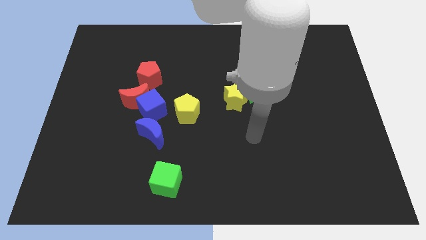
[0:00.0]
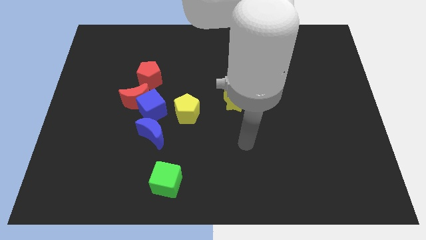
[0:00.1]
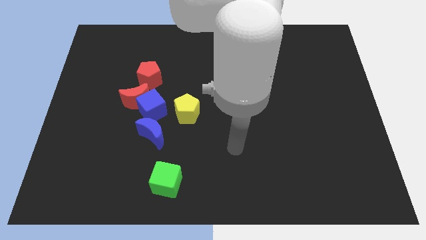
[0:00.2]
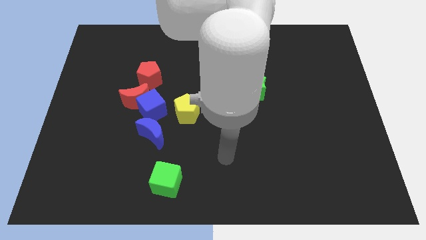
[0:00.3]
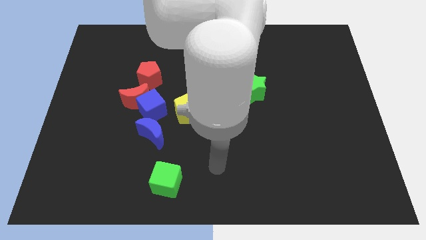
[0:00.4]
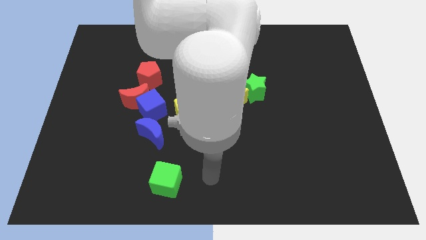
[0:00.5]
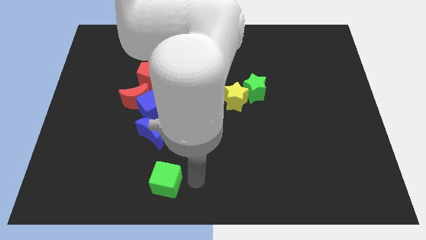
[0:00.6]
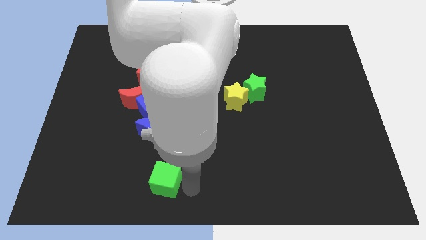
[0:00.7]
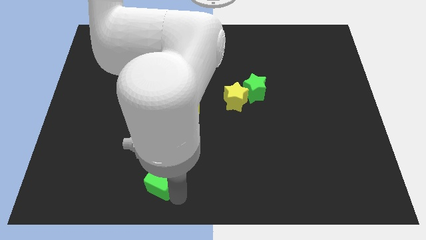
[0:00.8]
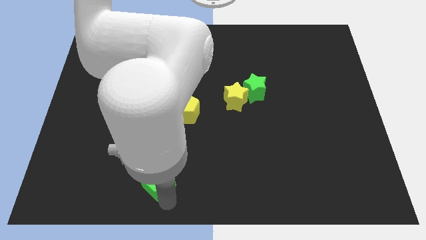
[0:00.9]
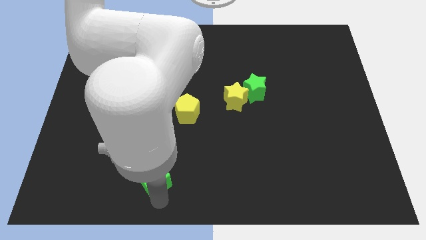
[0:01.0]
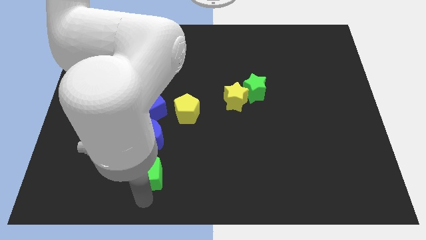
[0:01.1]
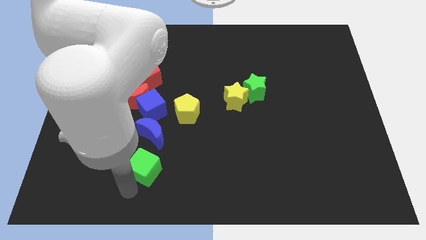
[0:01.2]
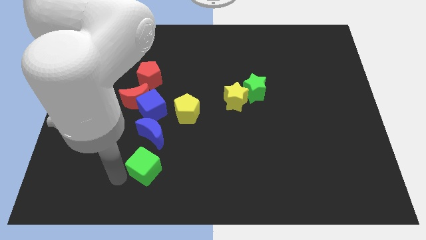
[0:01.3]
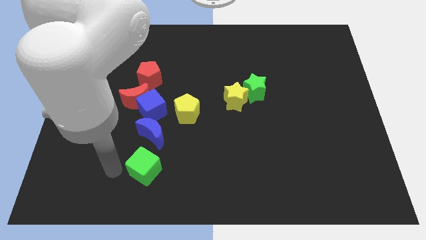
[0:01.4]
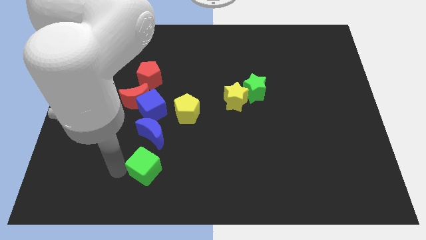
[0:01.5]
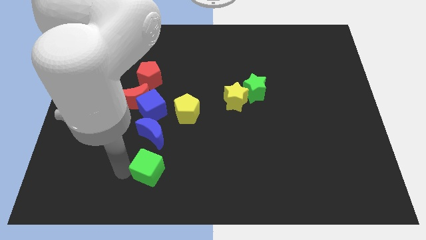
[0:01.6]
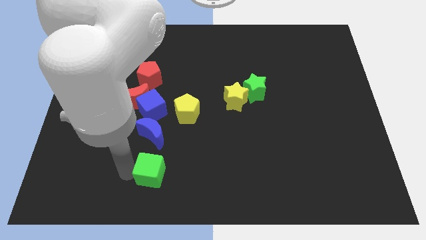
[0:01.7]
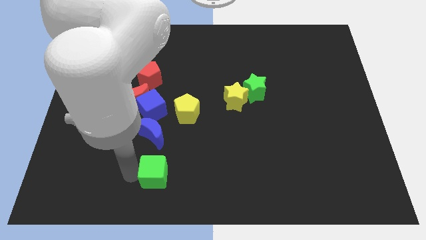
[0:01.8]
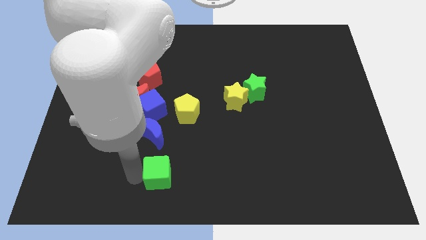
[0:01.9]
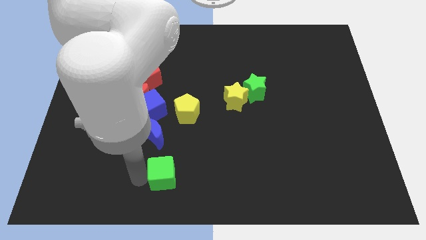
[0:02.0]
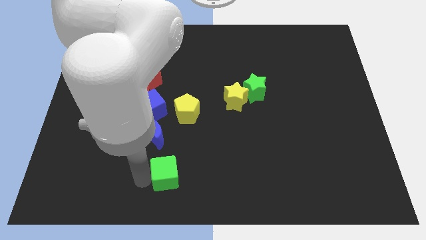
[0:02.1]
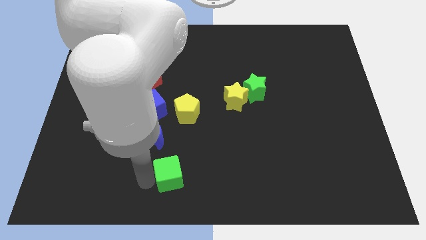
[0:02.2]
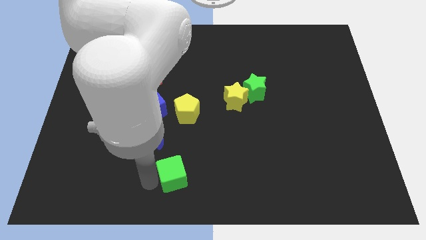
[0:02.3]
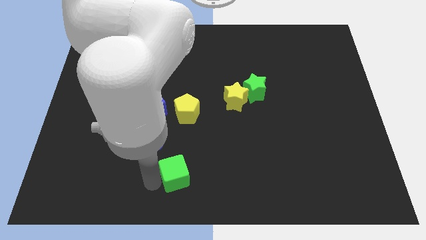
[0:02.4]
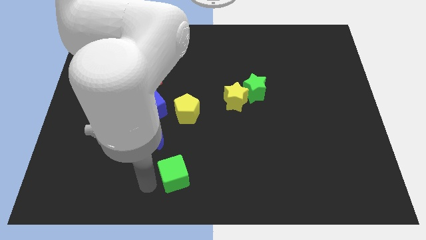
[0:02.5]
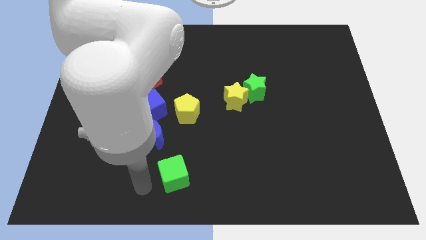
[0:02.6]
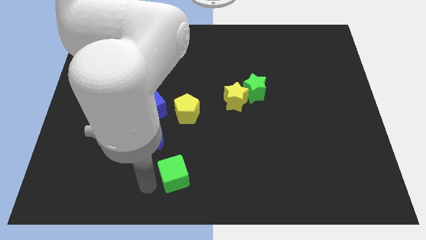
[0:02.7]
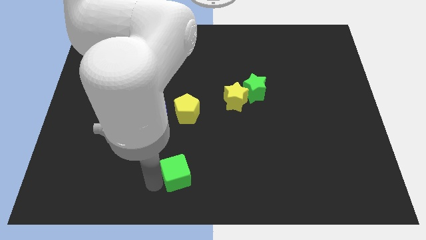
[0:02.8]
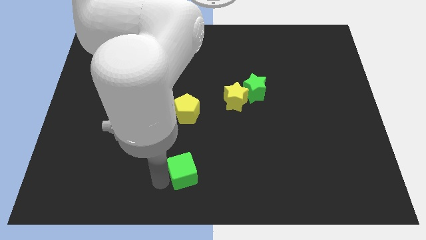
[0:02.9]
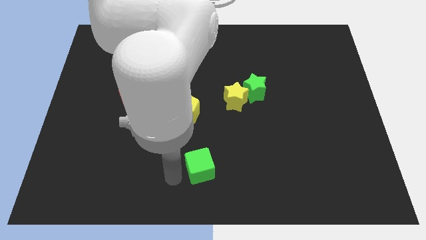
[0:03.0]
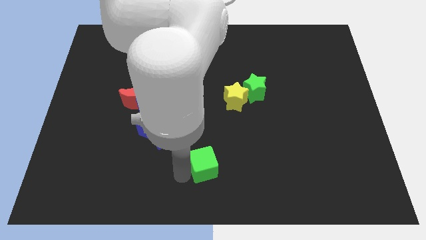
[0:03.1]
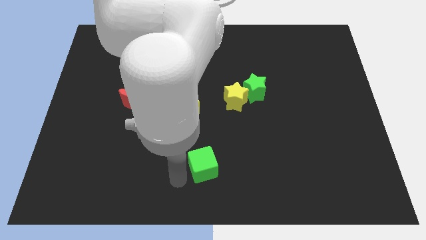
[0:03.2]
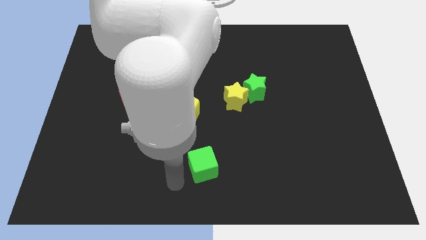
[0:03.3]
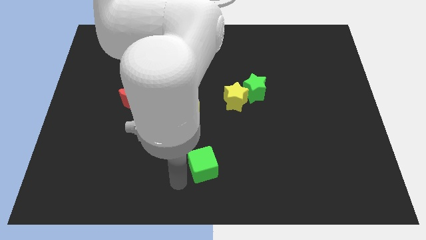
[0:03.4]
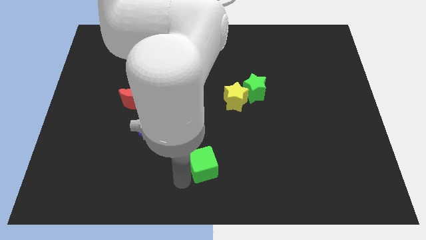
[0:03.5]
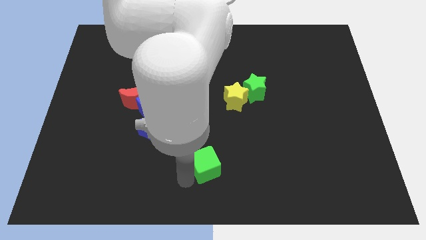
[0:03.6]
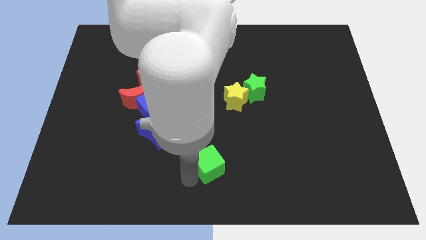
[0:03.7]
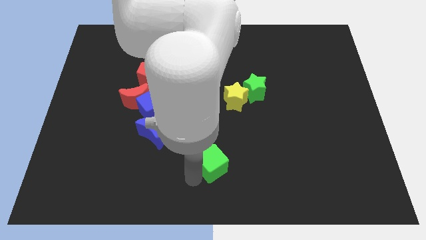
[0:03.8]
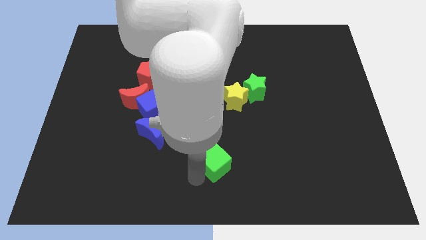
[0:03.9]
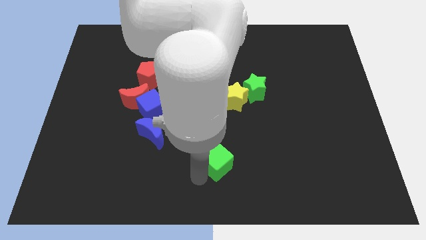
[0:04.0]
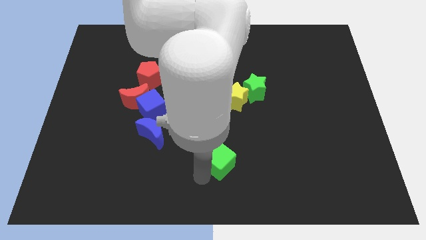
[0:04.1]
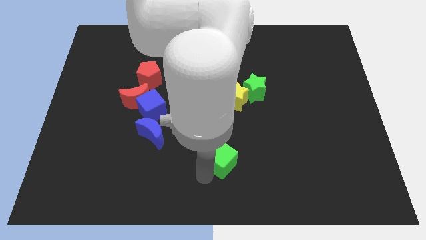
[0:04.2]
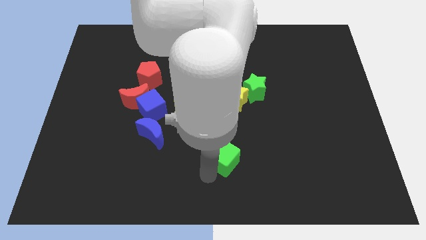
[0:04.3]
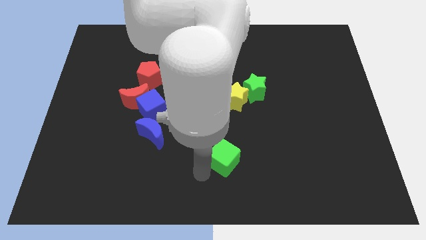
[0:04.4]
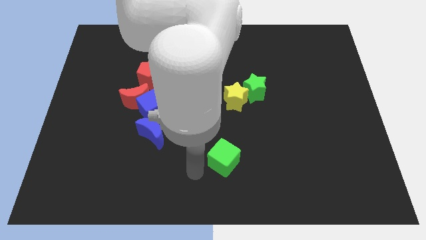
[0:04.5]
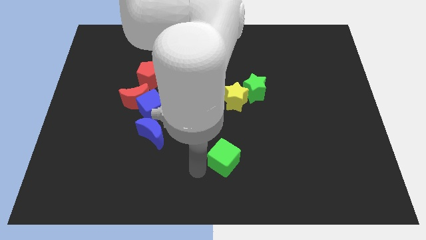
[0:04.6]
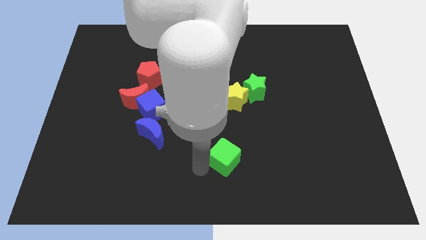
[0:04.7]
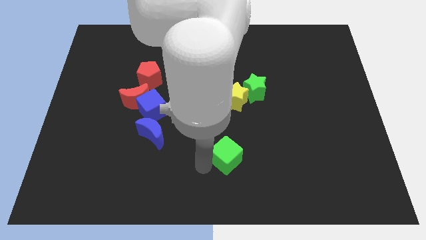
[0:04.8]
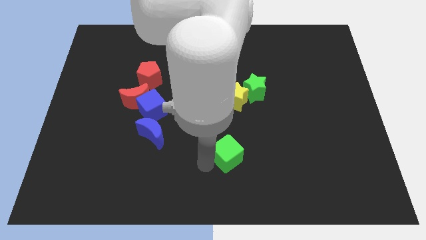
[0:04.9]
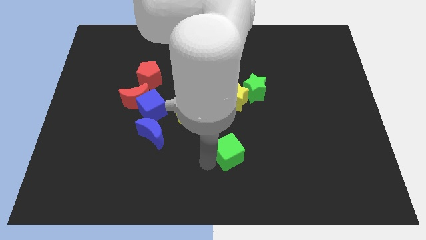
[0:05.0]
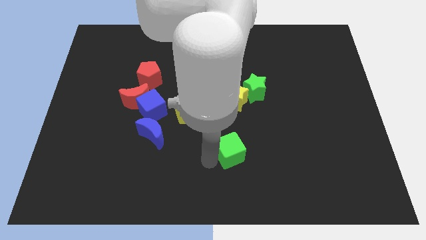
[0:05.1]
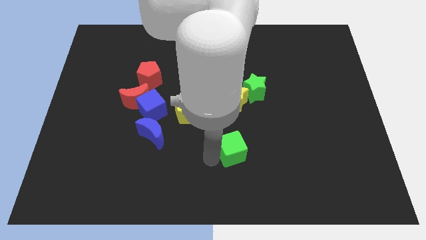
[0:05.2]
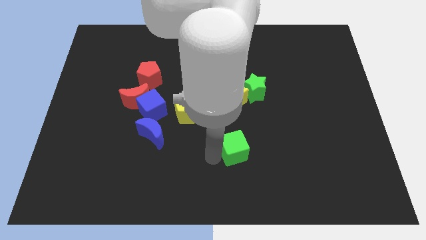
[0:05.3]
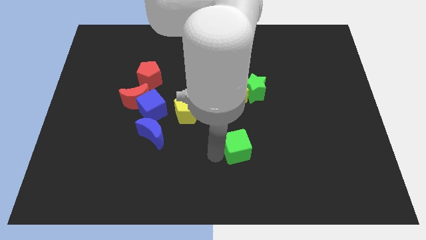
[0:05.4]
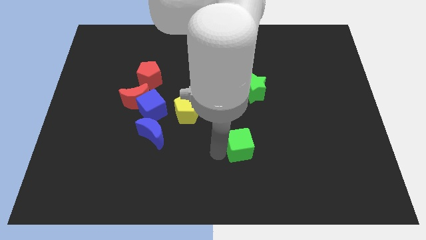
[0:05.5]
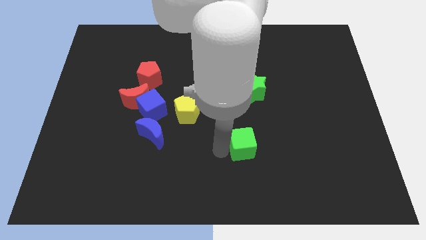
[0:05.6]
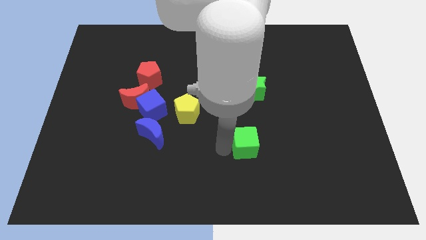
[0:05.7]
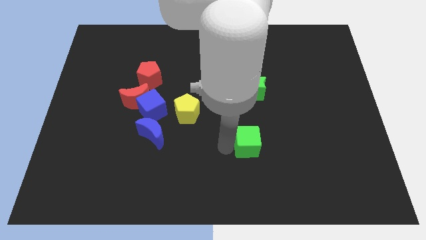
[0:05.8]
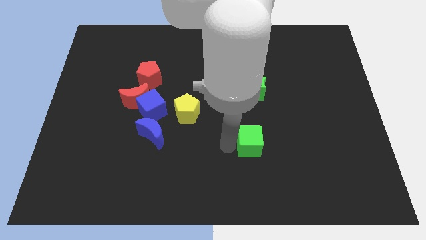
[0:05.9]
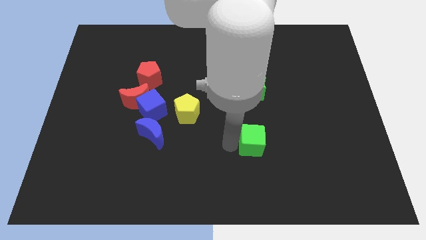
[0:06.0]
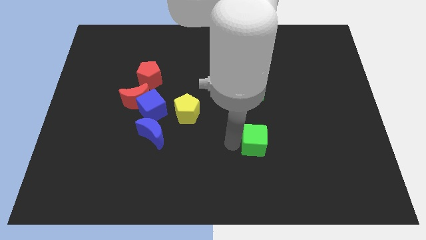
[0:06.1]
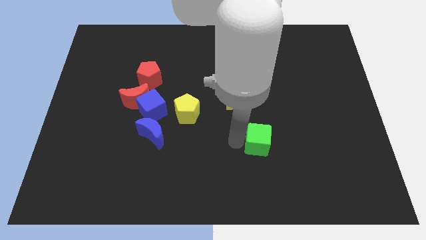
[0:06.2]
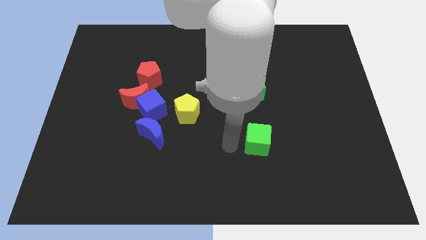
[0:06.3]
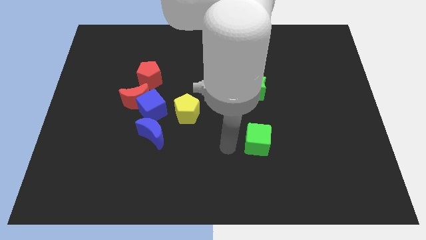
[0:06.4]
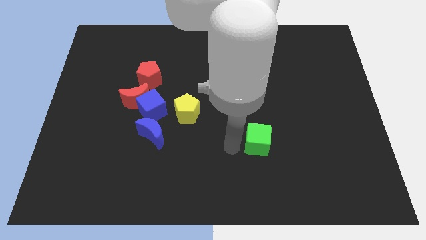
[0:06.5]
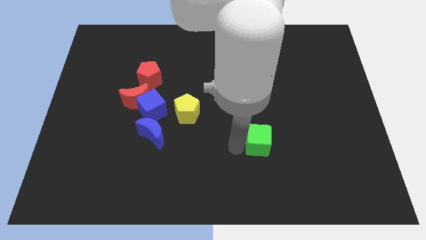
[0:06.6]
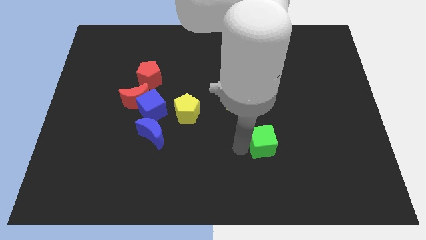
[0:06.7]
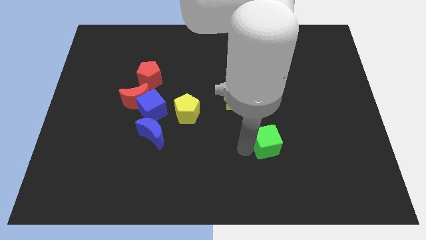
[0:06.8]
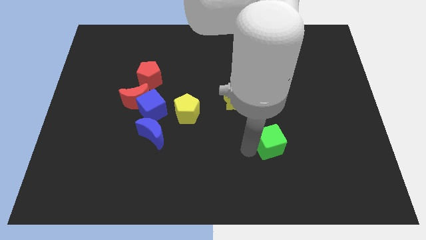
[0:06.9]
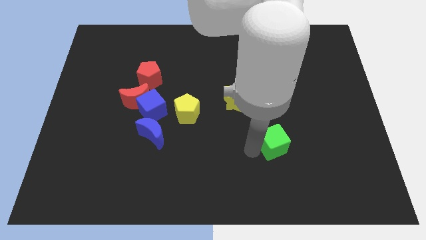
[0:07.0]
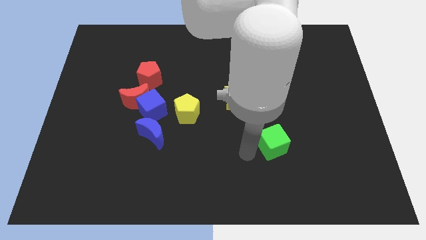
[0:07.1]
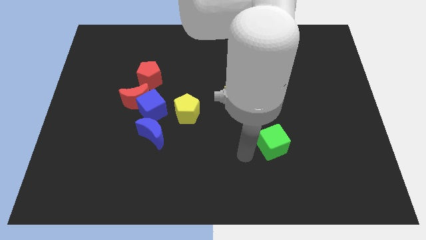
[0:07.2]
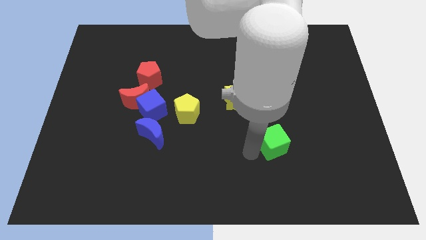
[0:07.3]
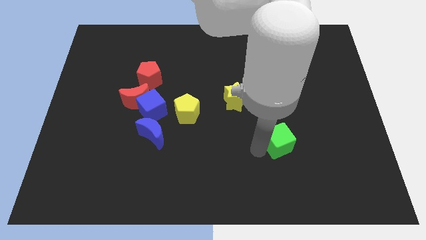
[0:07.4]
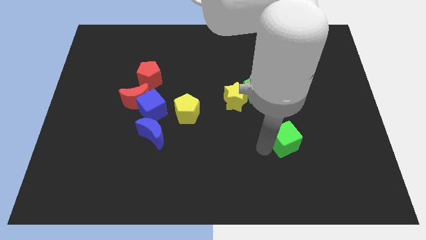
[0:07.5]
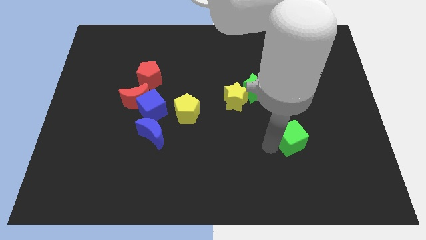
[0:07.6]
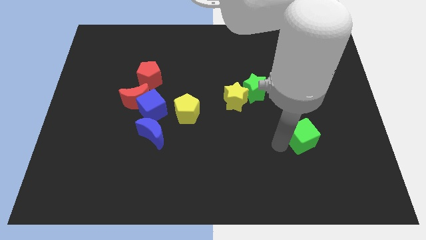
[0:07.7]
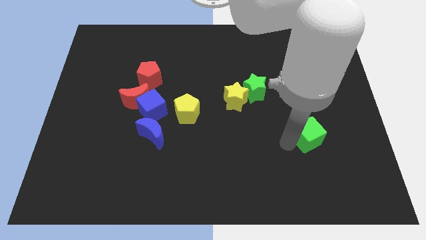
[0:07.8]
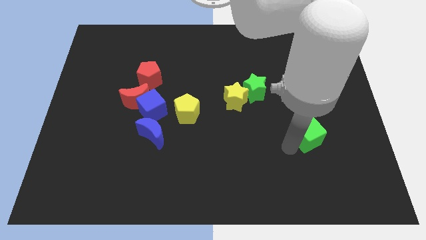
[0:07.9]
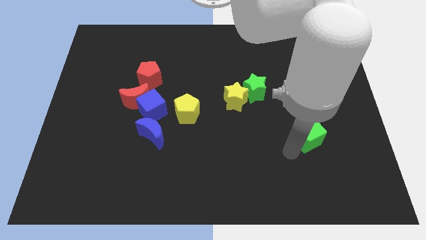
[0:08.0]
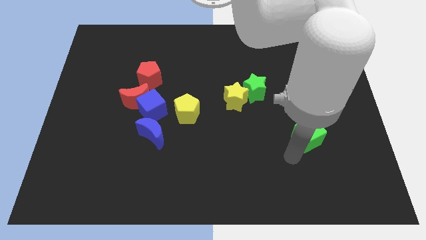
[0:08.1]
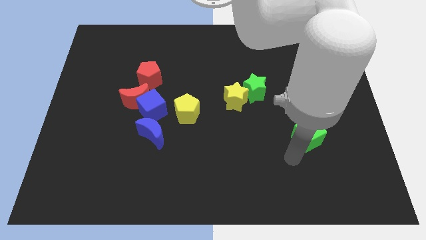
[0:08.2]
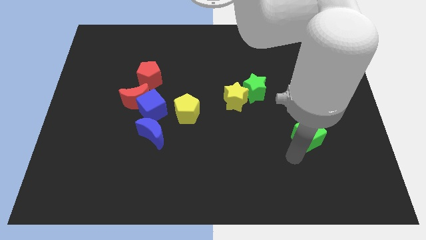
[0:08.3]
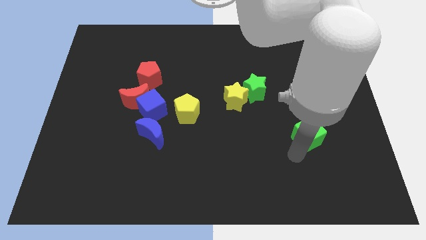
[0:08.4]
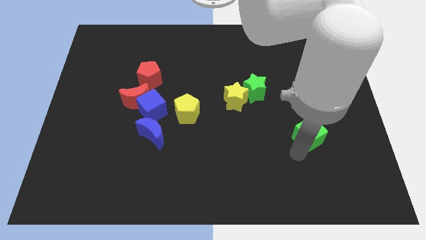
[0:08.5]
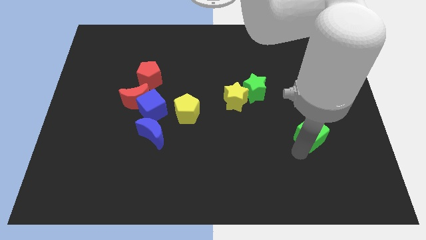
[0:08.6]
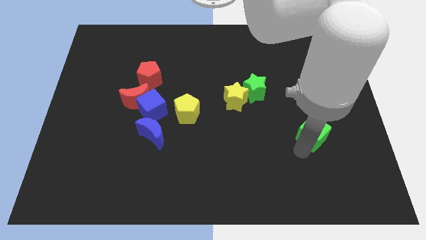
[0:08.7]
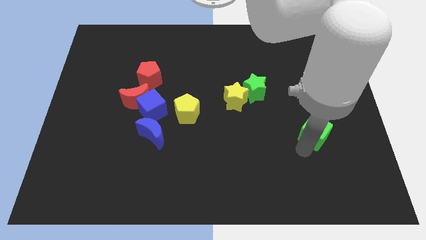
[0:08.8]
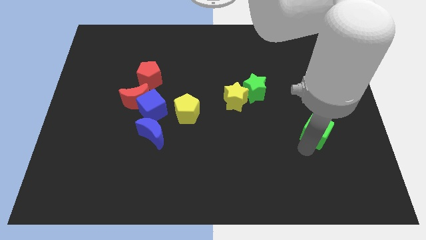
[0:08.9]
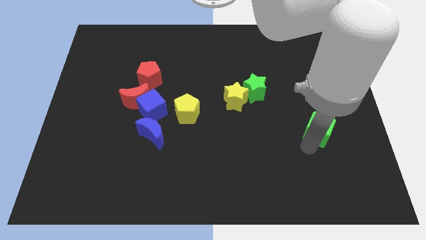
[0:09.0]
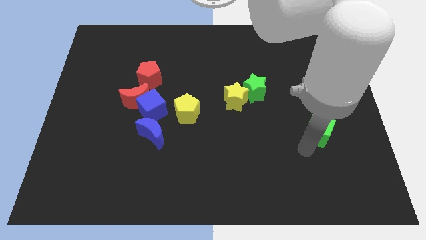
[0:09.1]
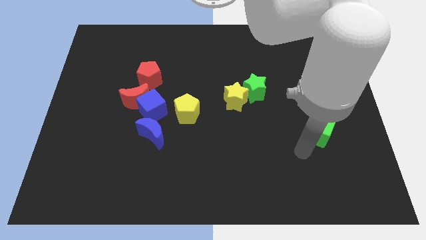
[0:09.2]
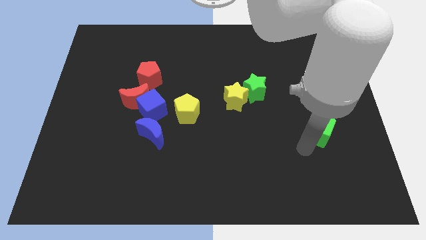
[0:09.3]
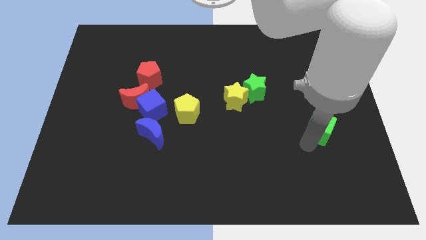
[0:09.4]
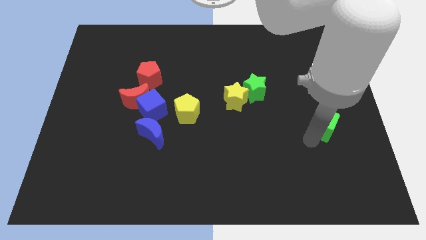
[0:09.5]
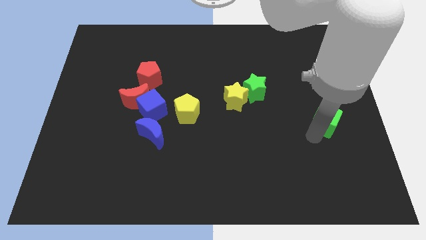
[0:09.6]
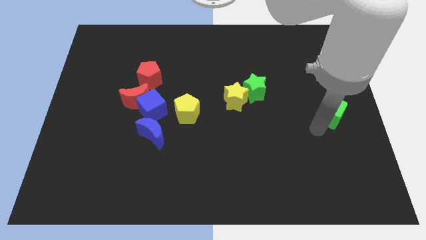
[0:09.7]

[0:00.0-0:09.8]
push the green cube to the right side
